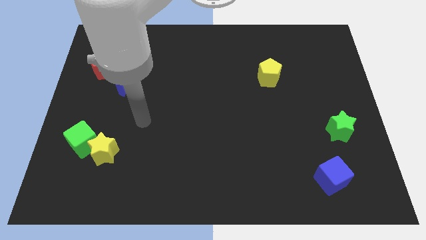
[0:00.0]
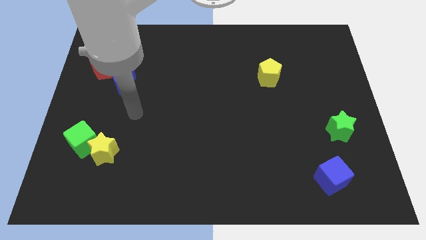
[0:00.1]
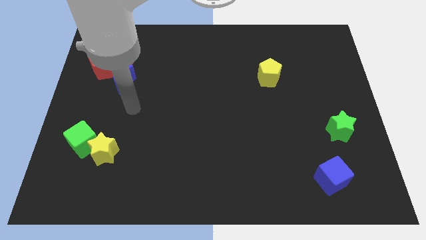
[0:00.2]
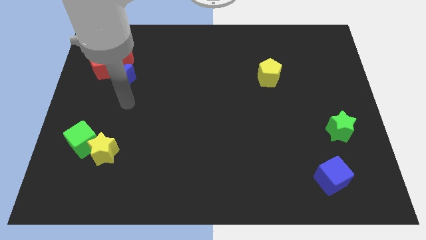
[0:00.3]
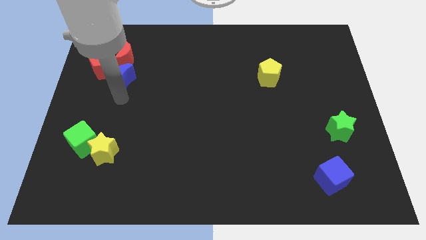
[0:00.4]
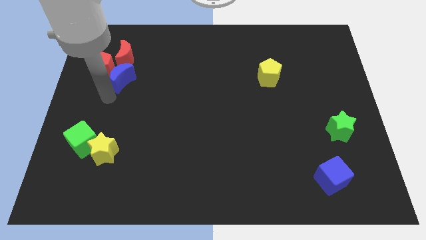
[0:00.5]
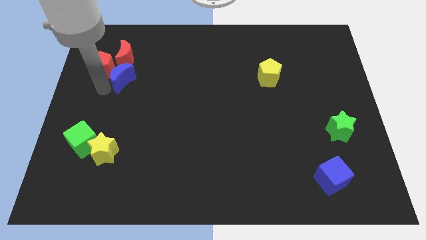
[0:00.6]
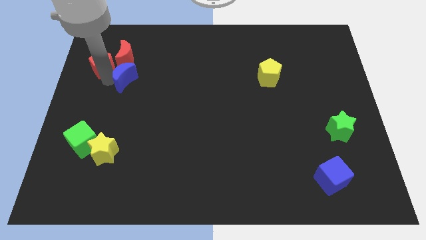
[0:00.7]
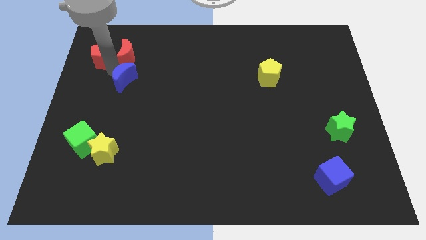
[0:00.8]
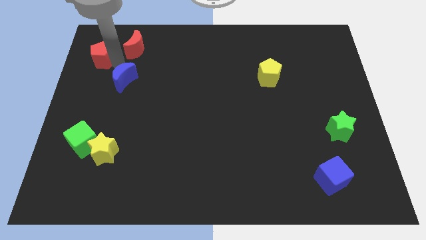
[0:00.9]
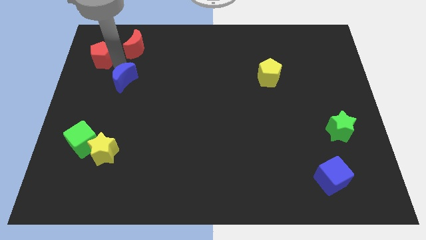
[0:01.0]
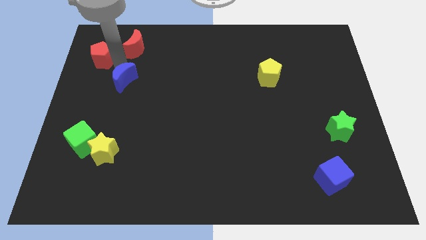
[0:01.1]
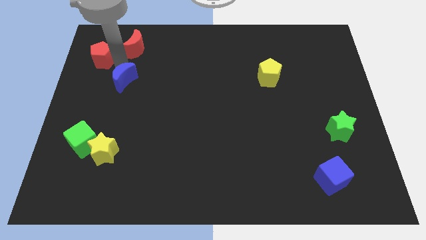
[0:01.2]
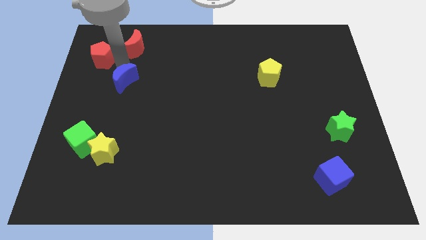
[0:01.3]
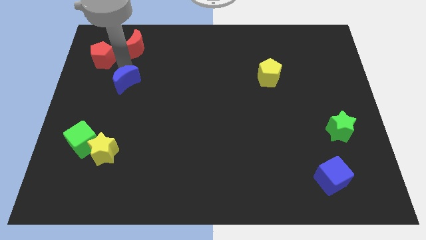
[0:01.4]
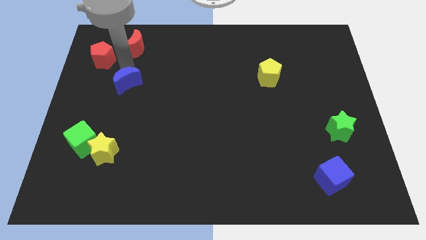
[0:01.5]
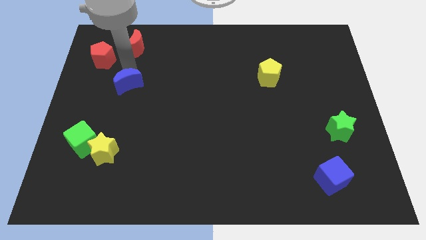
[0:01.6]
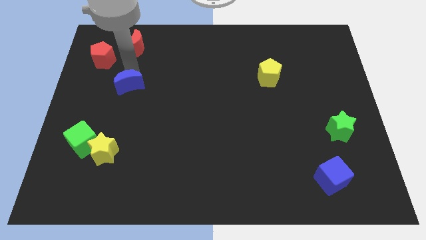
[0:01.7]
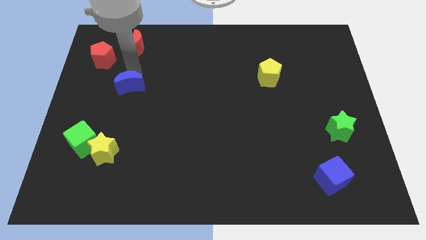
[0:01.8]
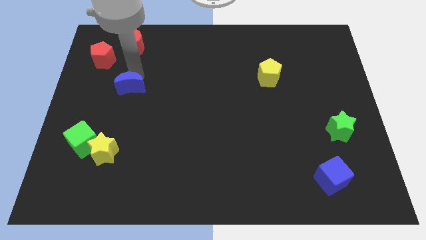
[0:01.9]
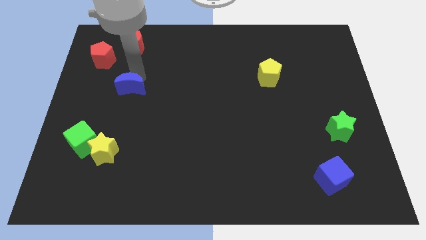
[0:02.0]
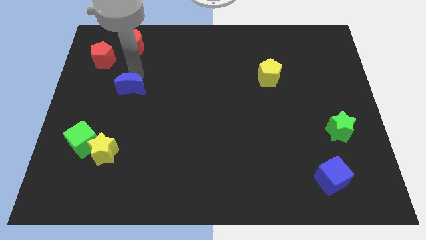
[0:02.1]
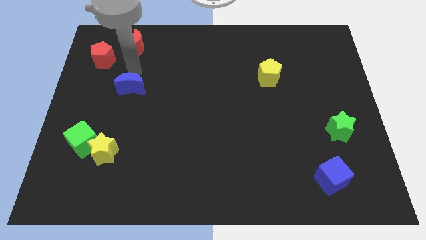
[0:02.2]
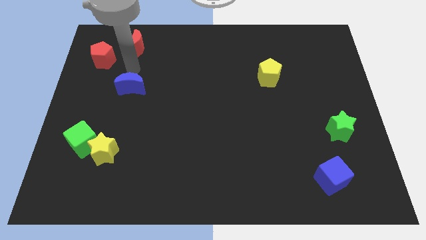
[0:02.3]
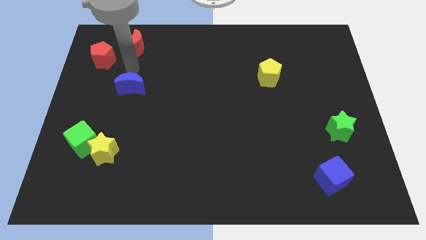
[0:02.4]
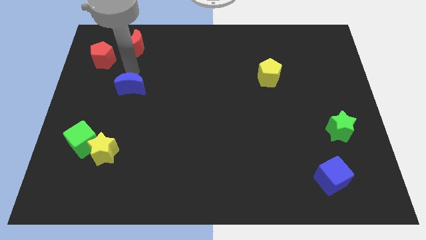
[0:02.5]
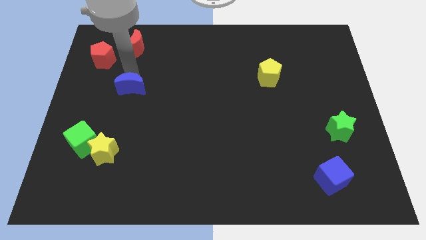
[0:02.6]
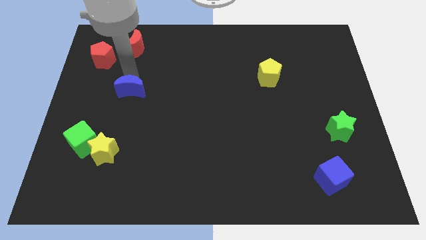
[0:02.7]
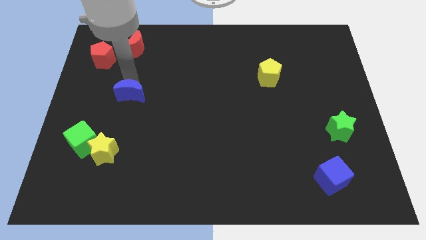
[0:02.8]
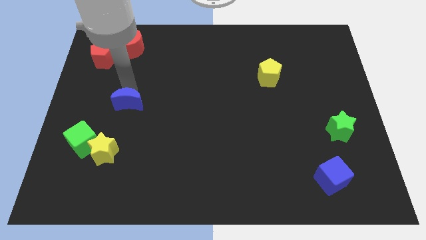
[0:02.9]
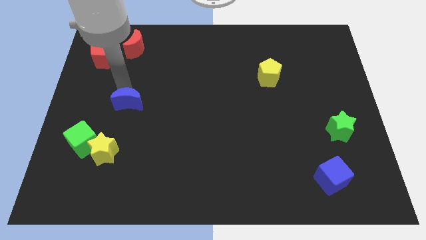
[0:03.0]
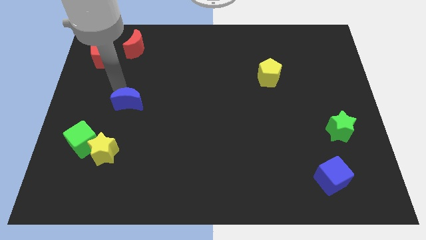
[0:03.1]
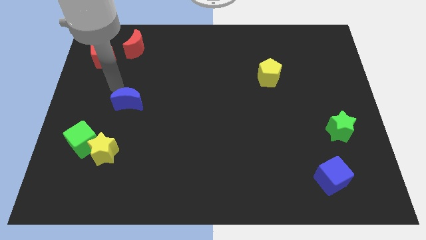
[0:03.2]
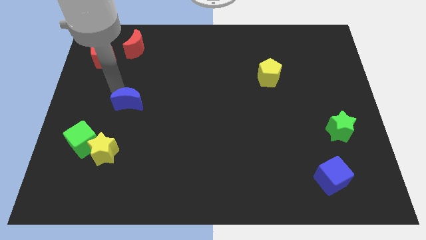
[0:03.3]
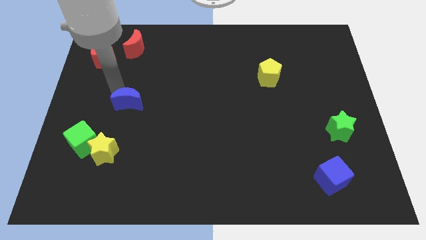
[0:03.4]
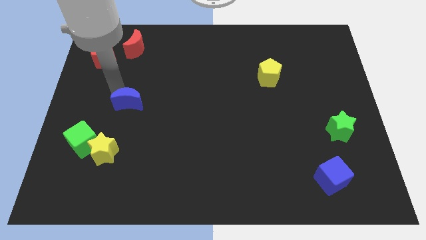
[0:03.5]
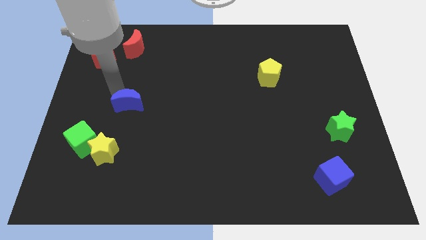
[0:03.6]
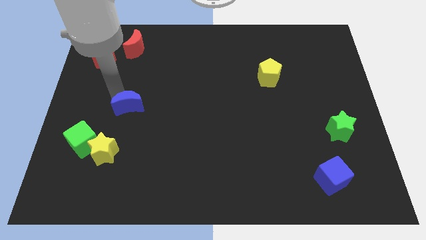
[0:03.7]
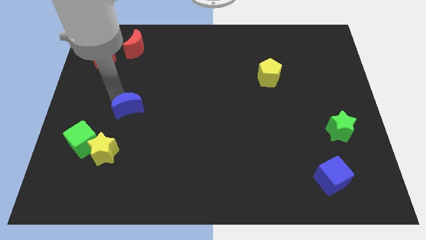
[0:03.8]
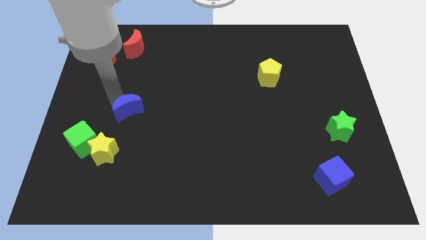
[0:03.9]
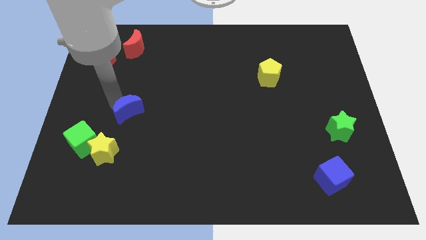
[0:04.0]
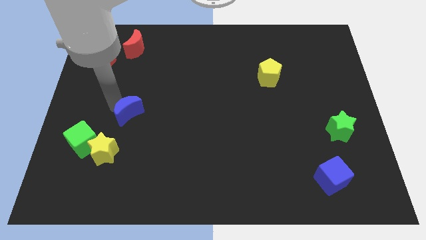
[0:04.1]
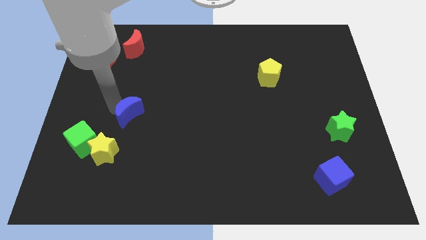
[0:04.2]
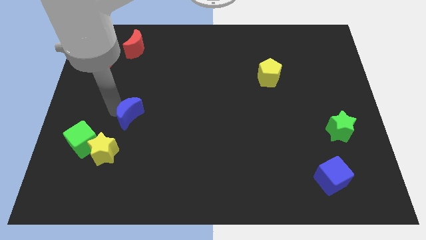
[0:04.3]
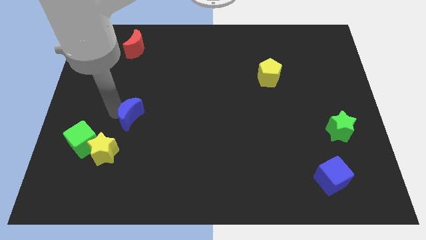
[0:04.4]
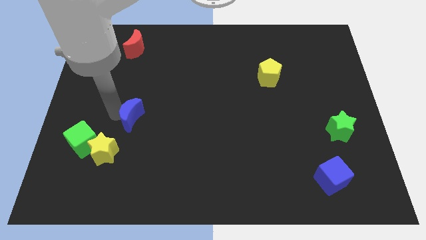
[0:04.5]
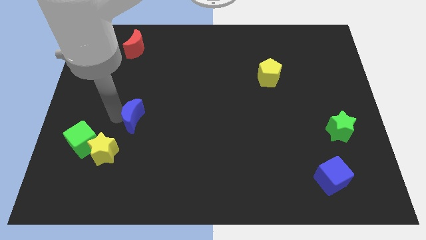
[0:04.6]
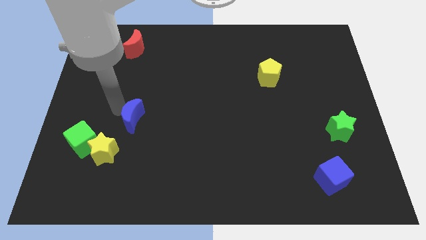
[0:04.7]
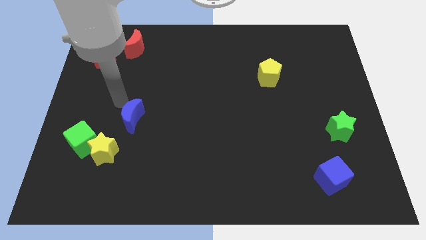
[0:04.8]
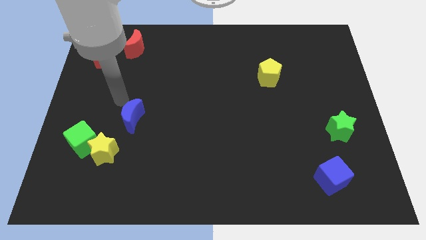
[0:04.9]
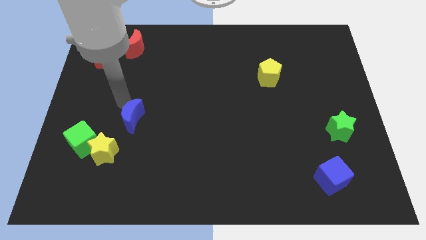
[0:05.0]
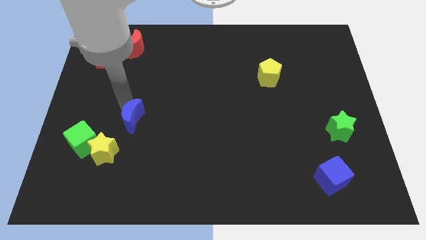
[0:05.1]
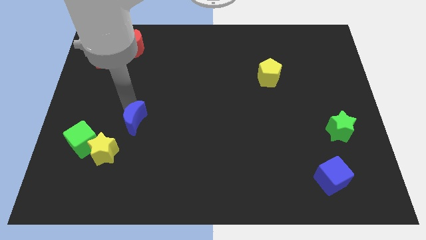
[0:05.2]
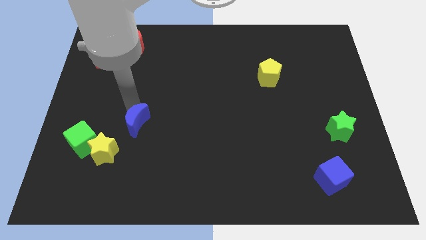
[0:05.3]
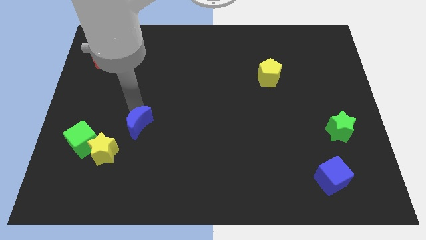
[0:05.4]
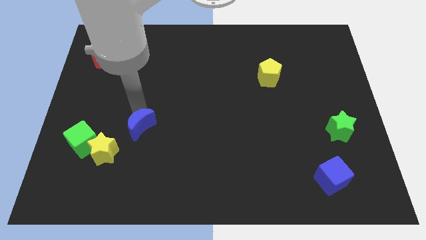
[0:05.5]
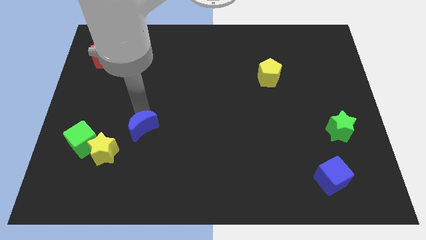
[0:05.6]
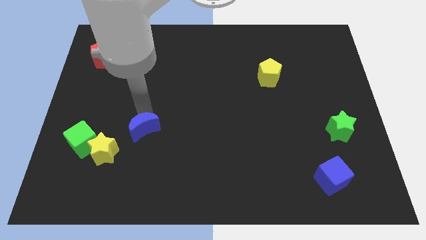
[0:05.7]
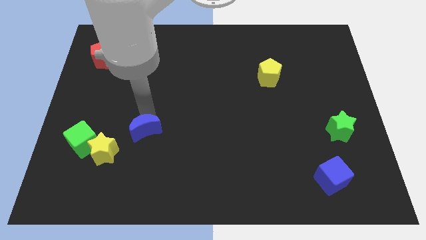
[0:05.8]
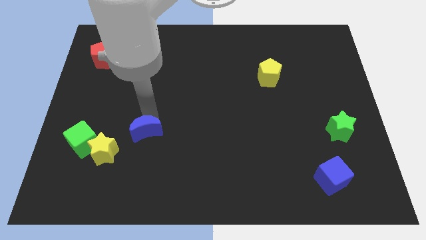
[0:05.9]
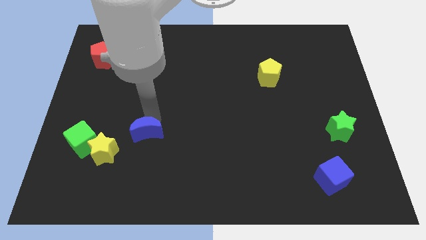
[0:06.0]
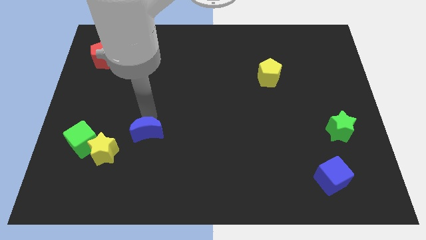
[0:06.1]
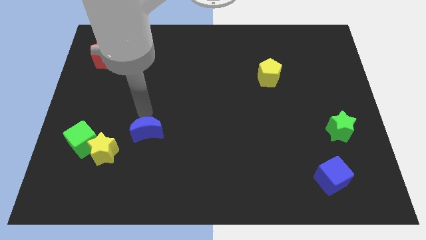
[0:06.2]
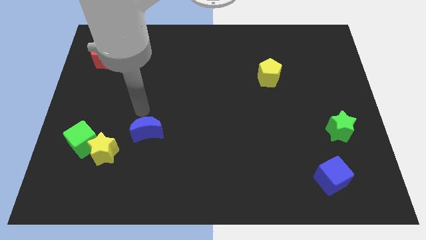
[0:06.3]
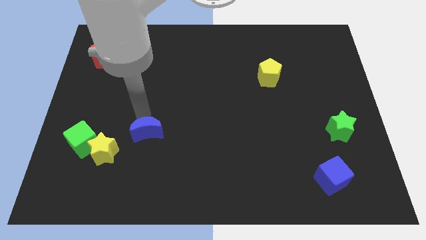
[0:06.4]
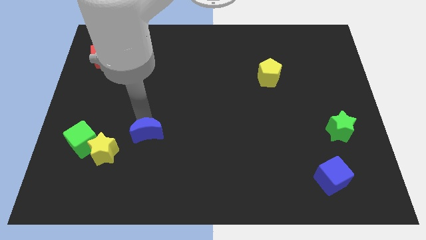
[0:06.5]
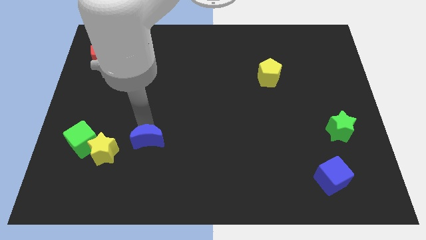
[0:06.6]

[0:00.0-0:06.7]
slide the blue moon to the right of the yellow star

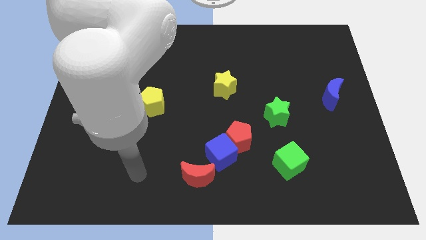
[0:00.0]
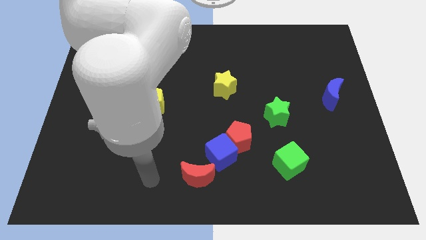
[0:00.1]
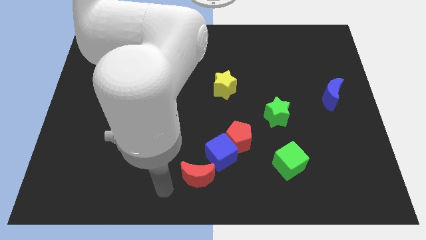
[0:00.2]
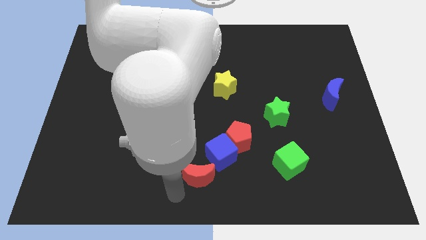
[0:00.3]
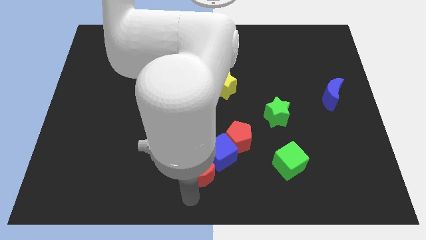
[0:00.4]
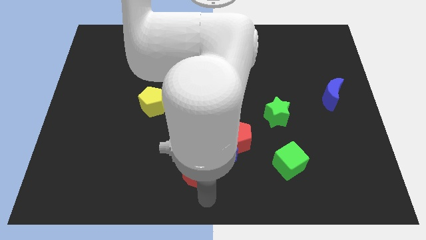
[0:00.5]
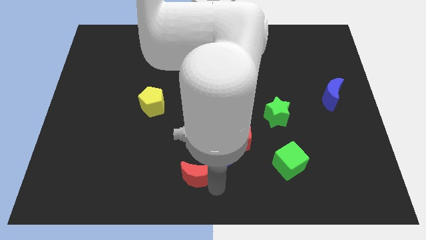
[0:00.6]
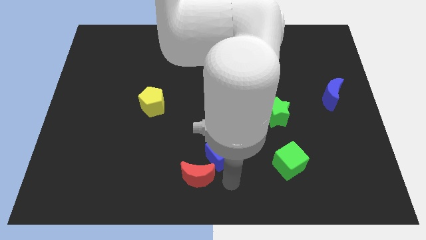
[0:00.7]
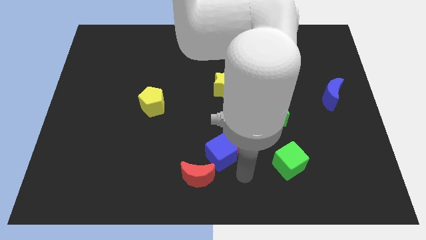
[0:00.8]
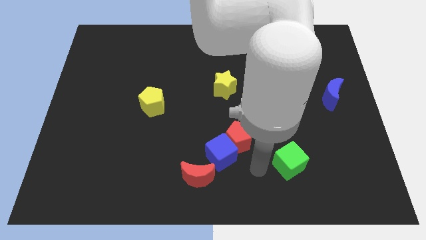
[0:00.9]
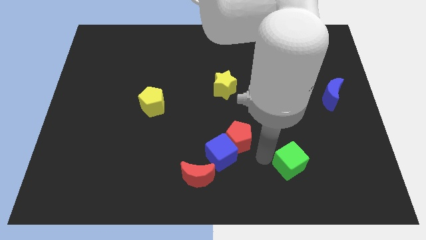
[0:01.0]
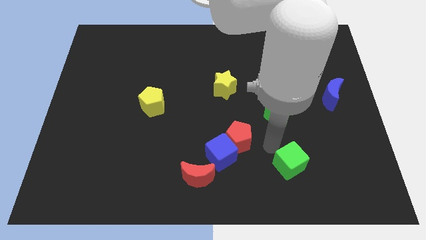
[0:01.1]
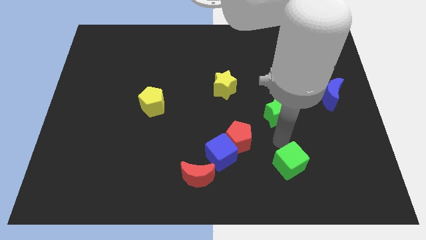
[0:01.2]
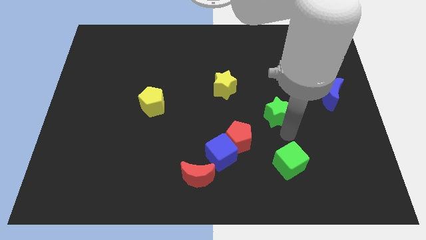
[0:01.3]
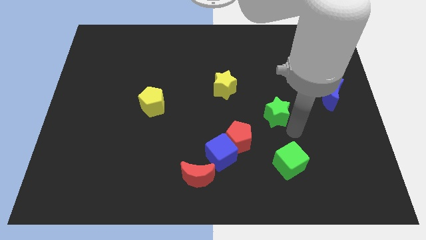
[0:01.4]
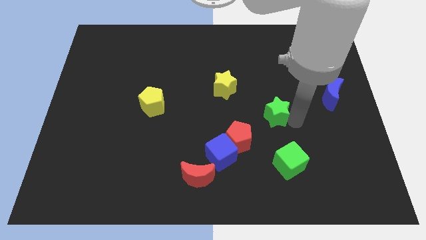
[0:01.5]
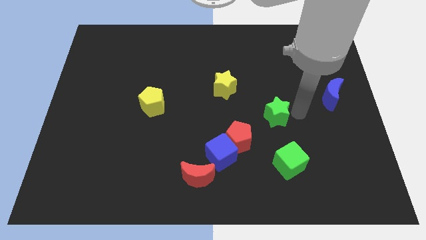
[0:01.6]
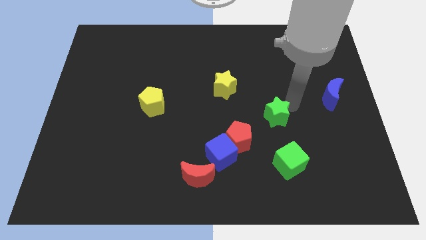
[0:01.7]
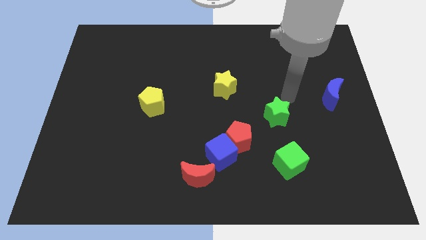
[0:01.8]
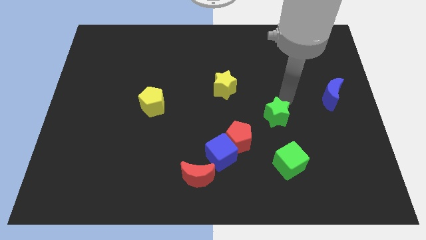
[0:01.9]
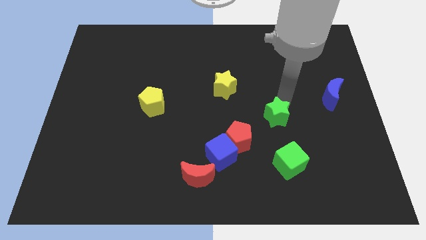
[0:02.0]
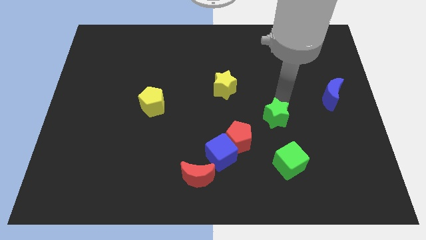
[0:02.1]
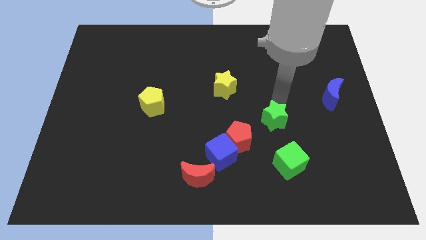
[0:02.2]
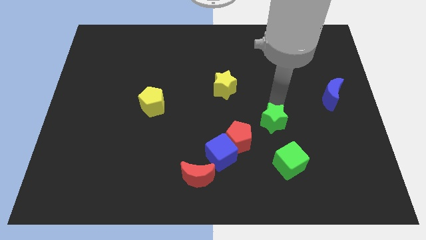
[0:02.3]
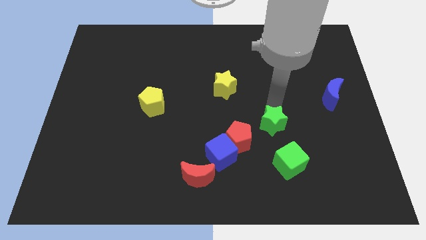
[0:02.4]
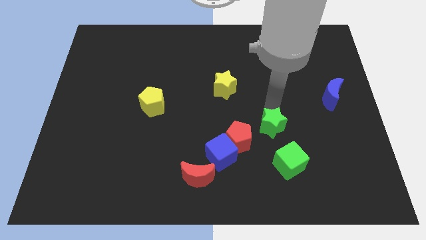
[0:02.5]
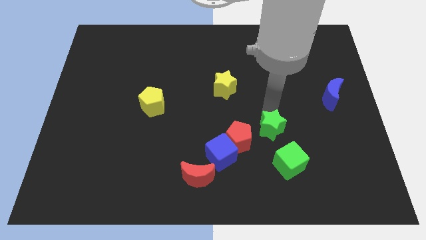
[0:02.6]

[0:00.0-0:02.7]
put the green star to the top left of the green cube
